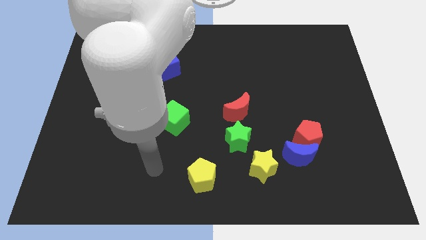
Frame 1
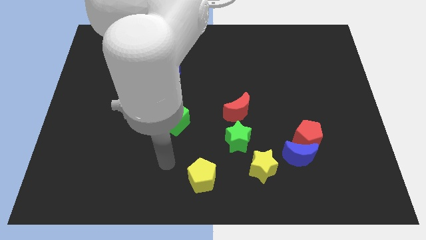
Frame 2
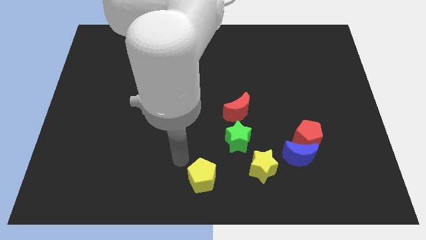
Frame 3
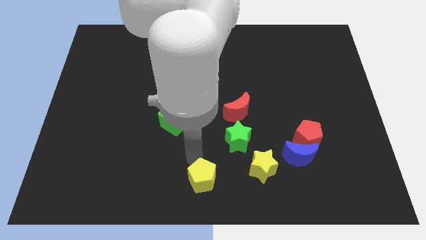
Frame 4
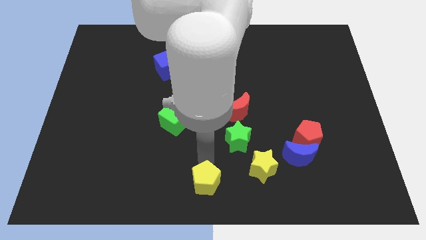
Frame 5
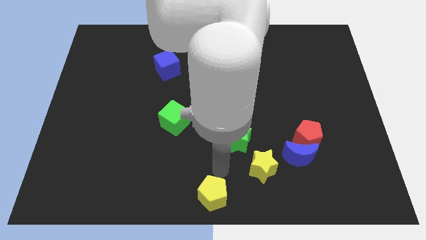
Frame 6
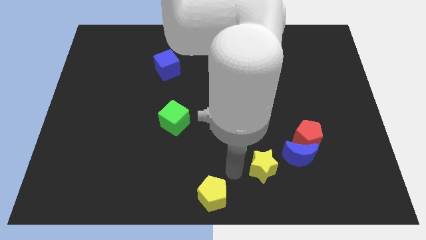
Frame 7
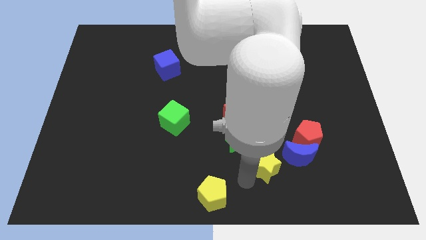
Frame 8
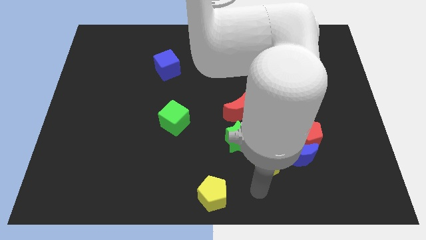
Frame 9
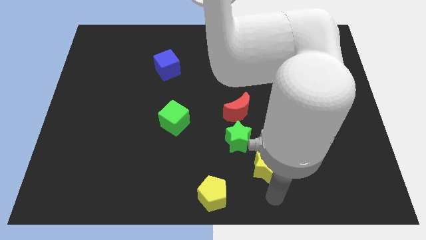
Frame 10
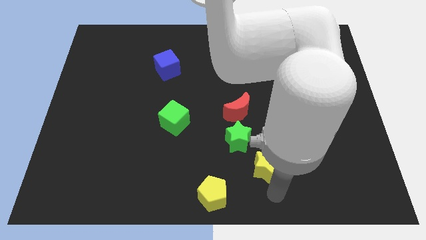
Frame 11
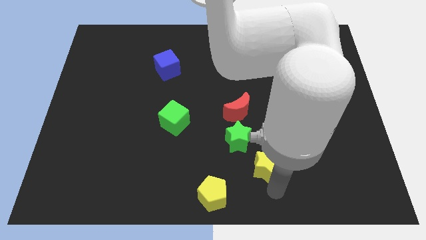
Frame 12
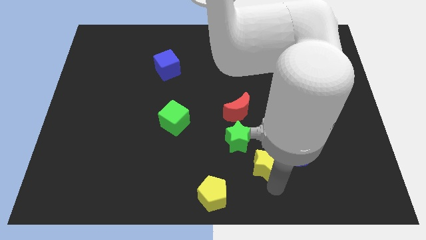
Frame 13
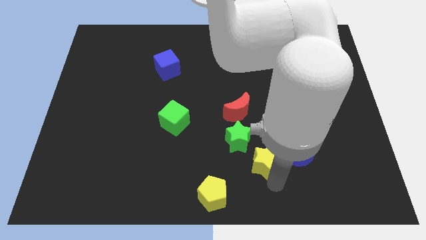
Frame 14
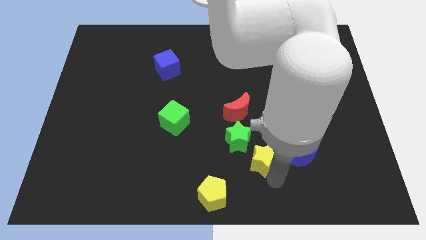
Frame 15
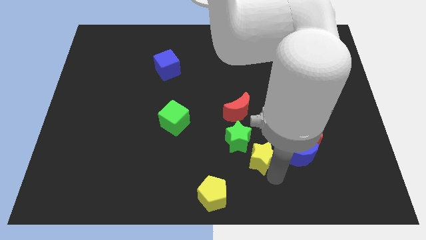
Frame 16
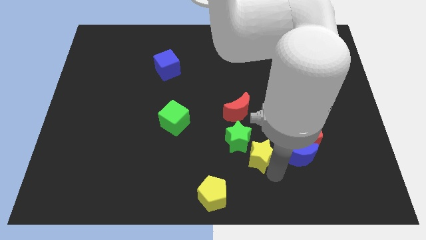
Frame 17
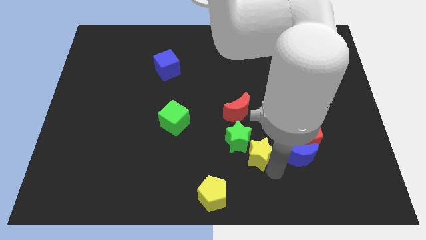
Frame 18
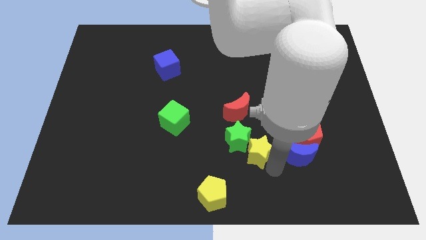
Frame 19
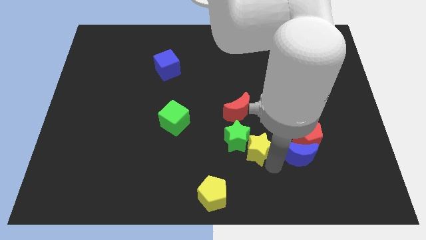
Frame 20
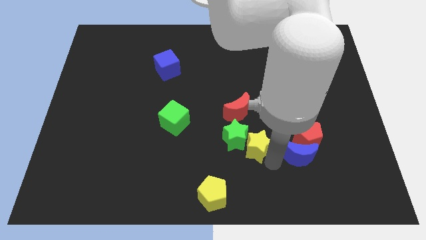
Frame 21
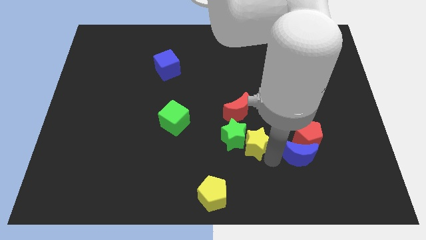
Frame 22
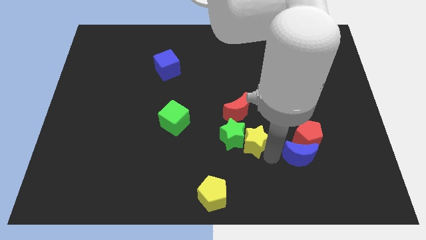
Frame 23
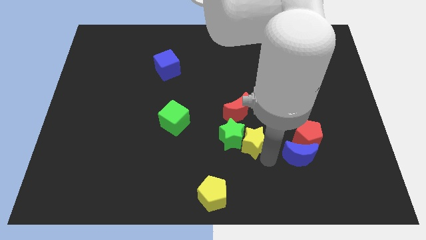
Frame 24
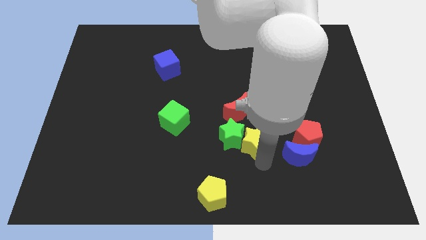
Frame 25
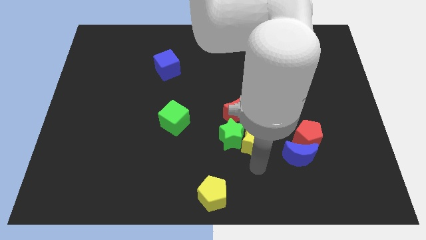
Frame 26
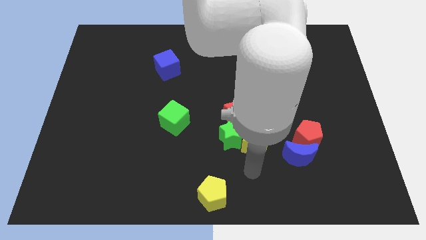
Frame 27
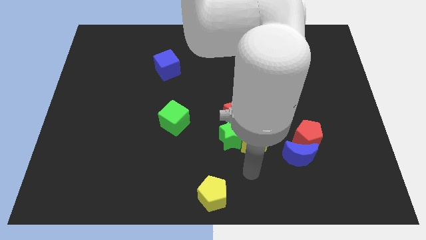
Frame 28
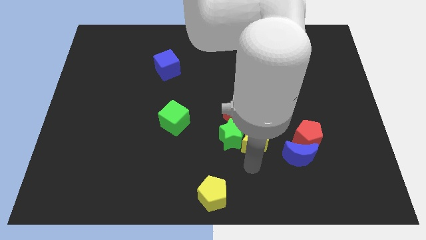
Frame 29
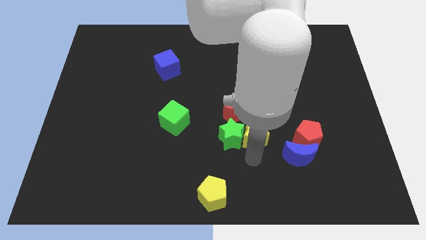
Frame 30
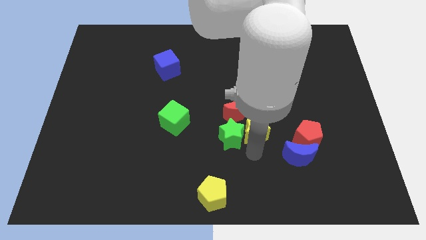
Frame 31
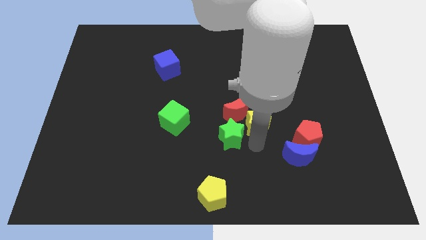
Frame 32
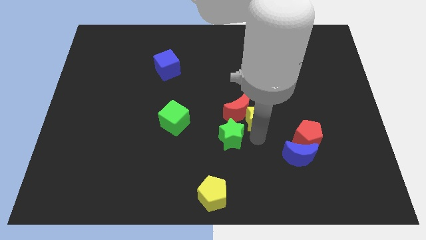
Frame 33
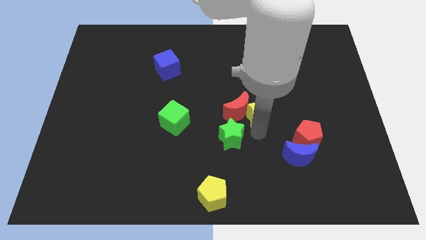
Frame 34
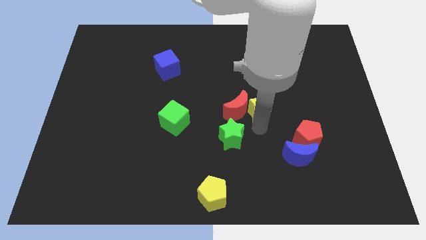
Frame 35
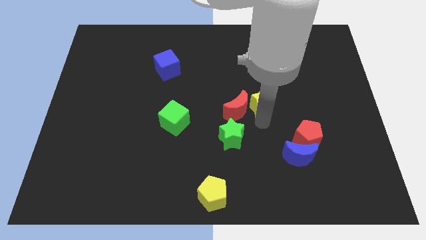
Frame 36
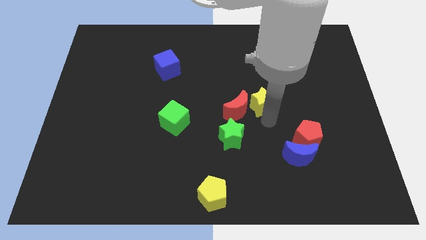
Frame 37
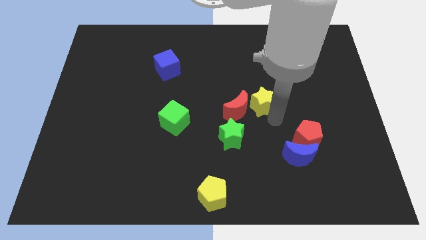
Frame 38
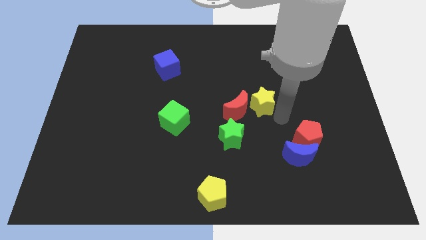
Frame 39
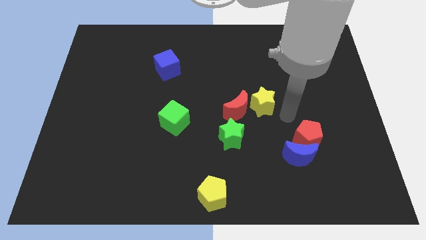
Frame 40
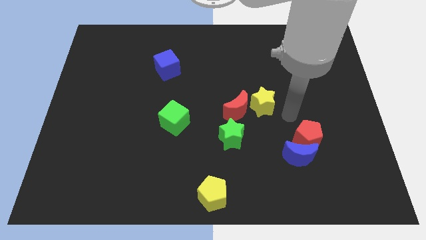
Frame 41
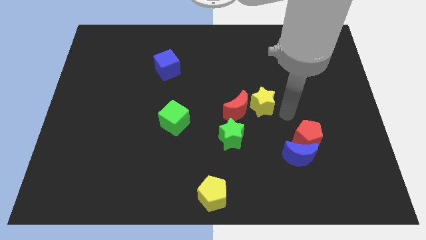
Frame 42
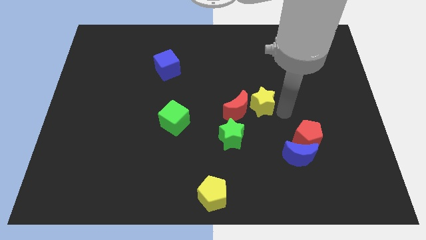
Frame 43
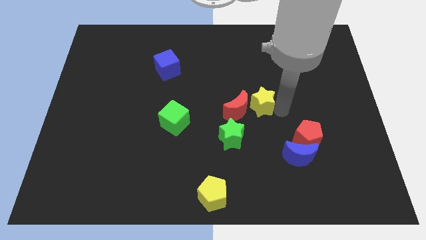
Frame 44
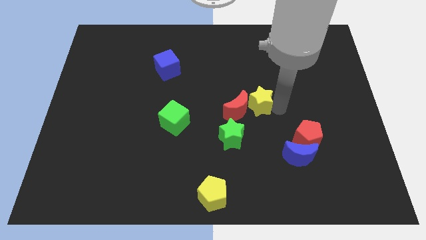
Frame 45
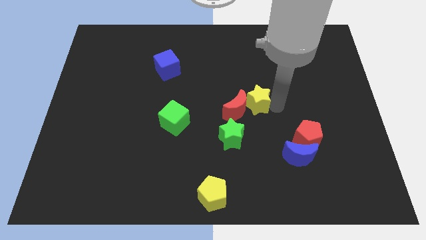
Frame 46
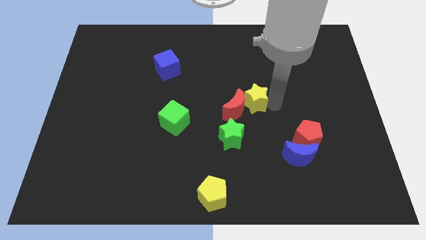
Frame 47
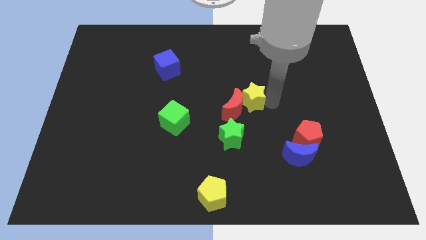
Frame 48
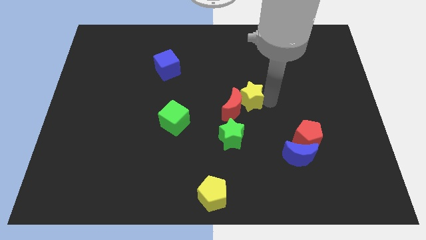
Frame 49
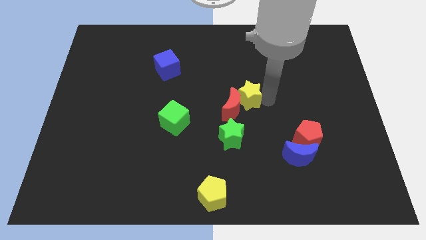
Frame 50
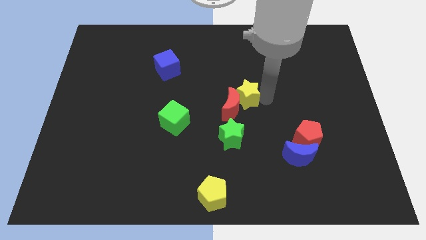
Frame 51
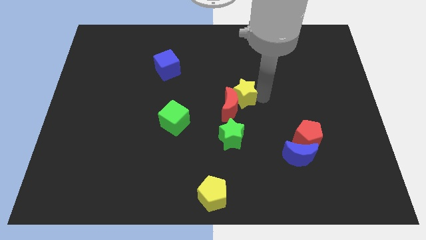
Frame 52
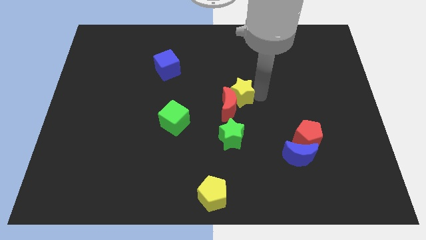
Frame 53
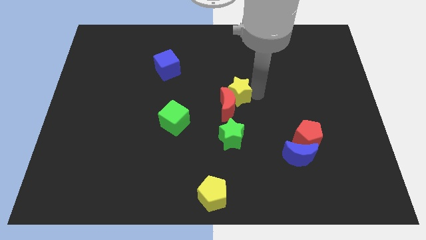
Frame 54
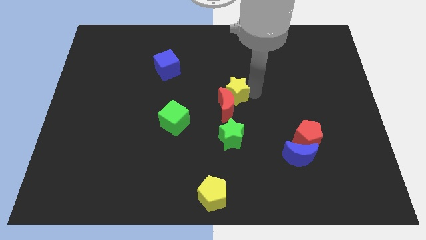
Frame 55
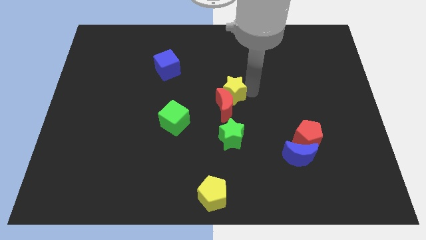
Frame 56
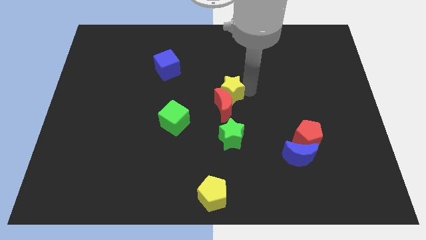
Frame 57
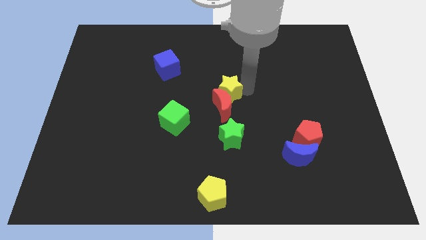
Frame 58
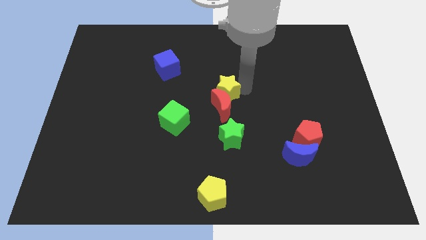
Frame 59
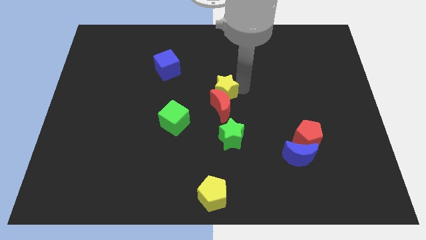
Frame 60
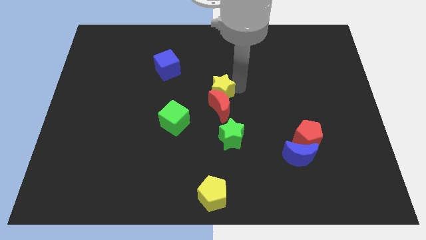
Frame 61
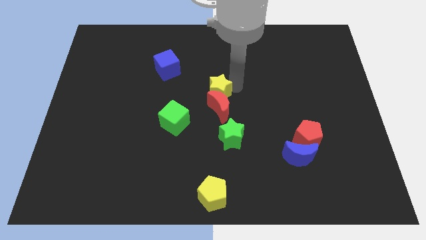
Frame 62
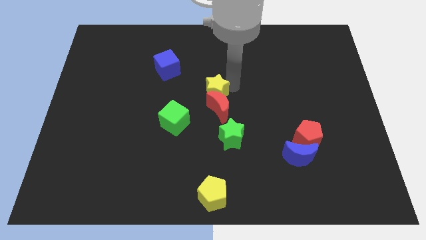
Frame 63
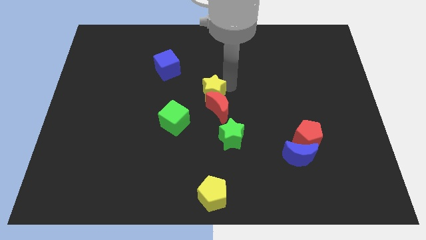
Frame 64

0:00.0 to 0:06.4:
move the yellow star upwards and to the left diagonally

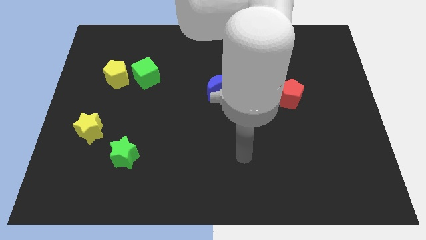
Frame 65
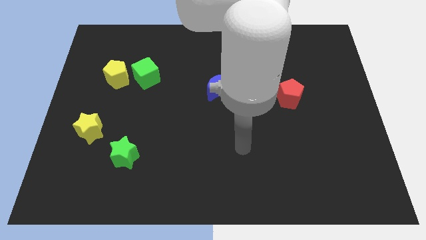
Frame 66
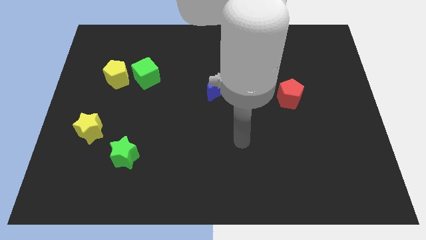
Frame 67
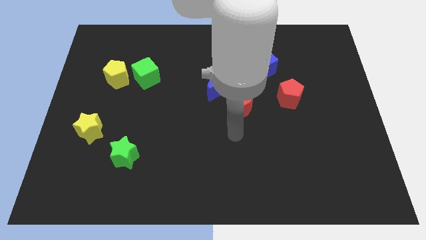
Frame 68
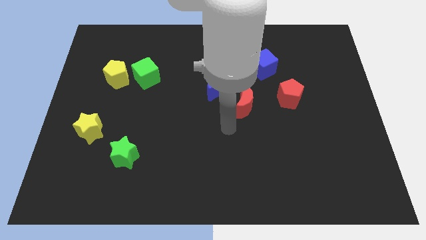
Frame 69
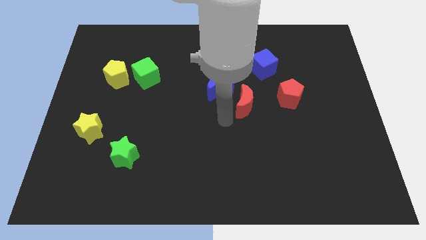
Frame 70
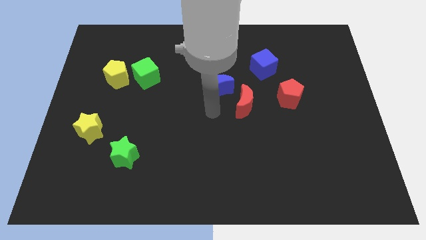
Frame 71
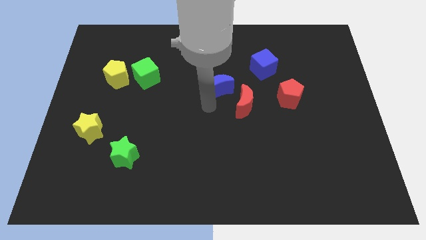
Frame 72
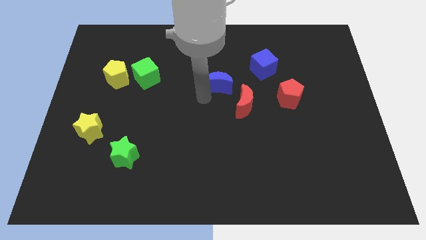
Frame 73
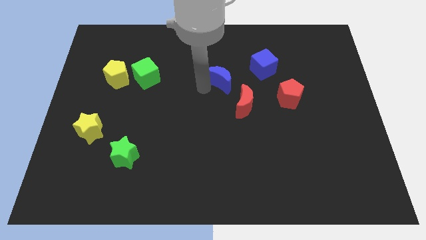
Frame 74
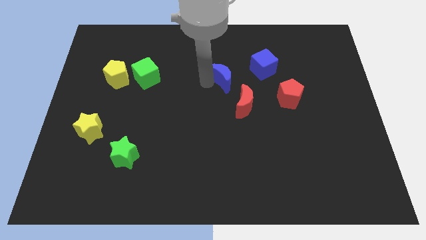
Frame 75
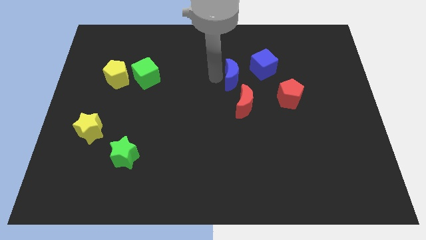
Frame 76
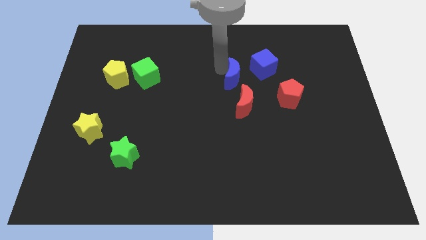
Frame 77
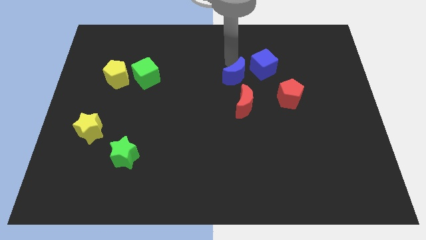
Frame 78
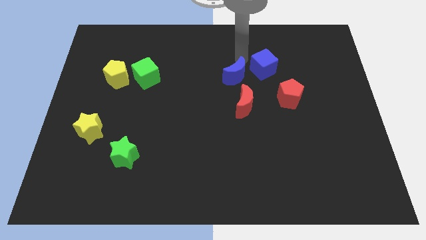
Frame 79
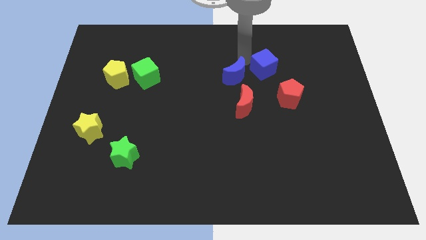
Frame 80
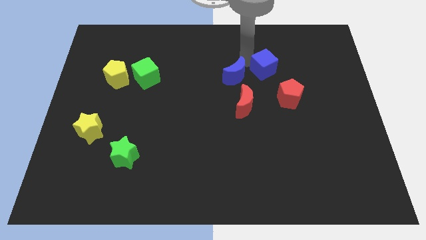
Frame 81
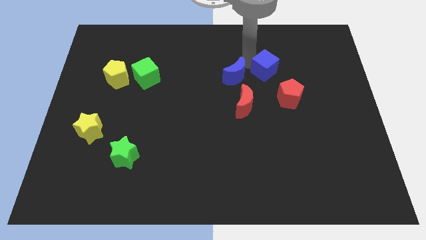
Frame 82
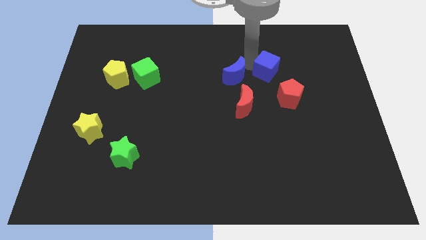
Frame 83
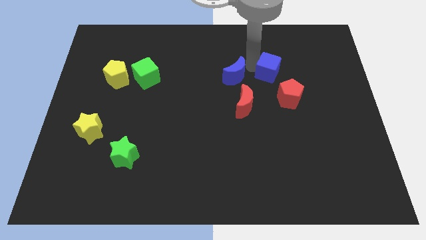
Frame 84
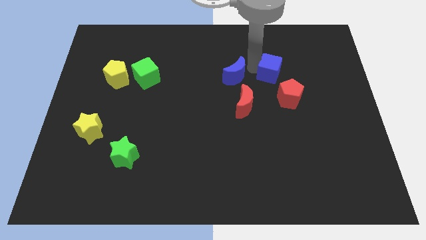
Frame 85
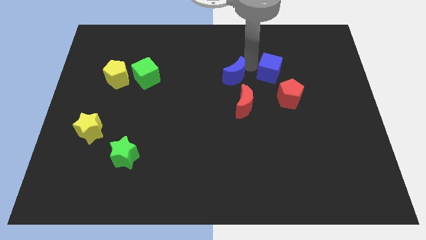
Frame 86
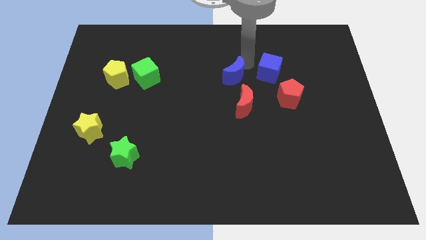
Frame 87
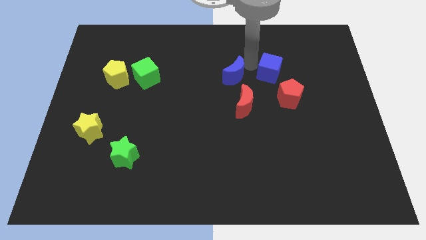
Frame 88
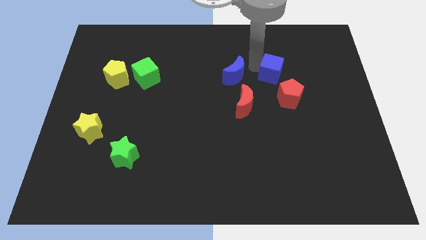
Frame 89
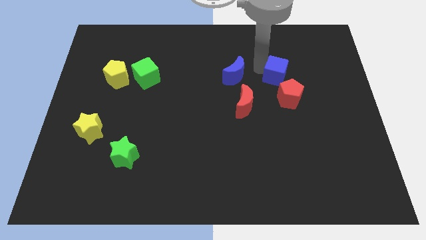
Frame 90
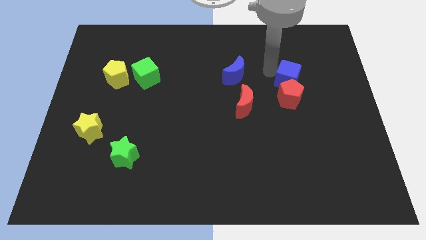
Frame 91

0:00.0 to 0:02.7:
push the blue cube downwards and to the right a little
